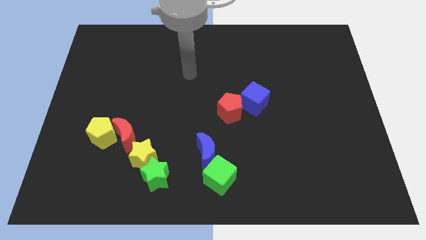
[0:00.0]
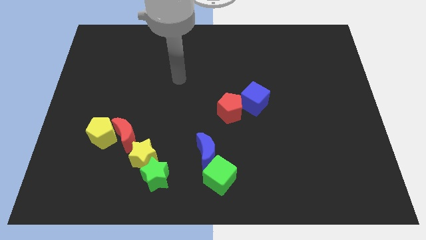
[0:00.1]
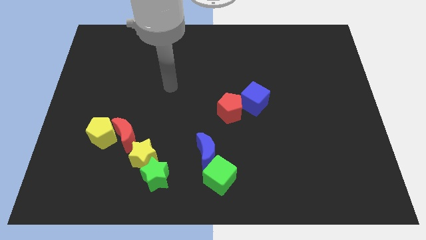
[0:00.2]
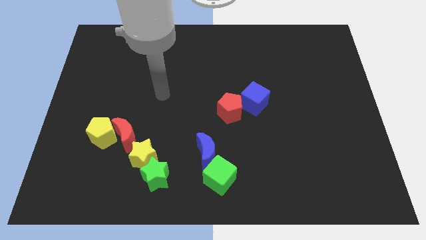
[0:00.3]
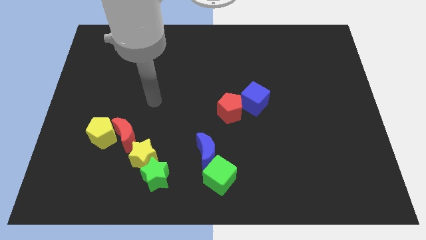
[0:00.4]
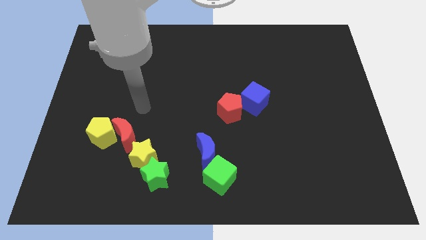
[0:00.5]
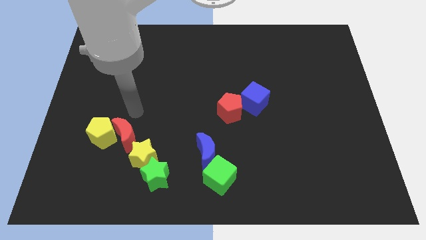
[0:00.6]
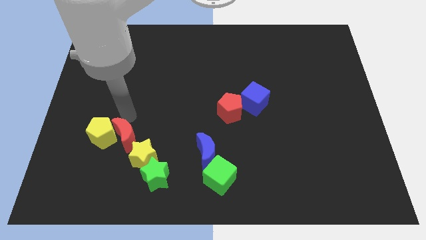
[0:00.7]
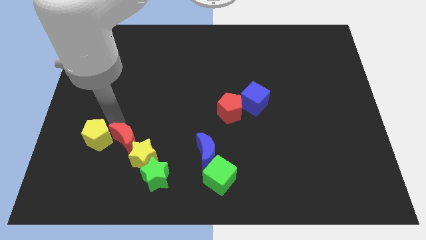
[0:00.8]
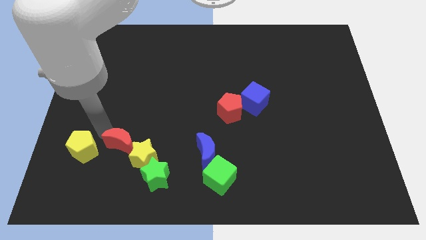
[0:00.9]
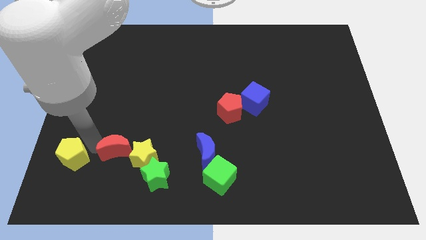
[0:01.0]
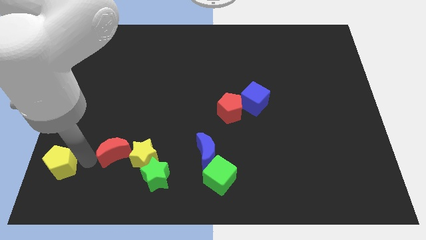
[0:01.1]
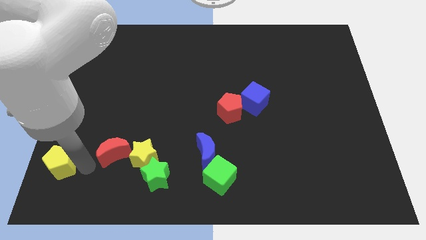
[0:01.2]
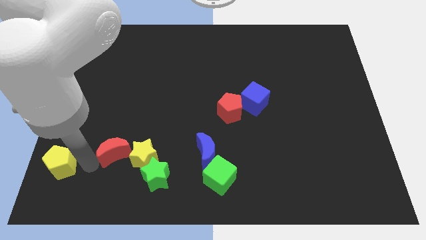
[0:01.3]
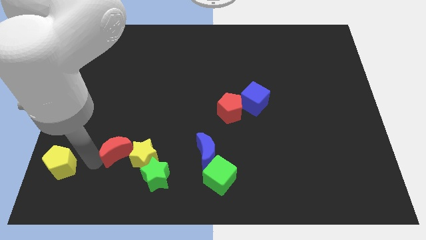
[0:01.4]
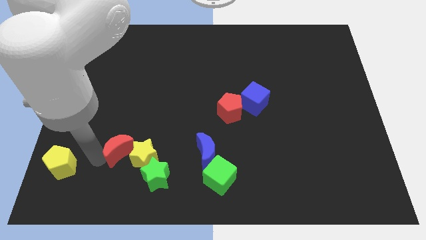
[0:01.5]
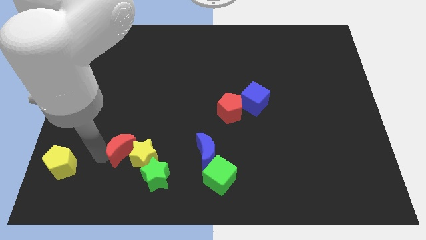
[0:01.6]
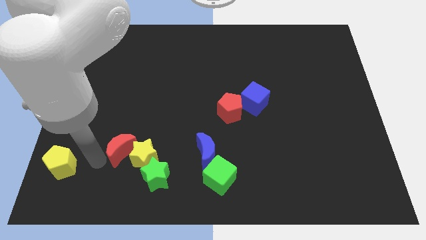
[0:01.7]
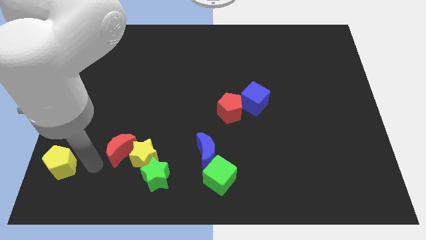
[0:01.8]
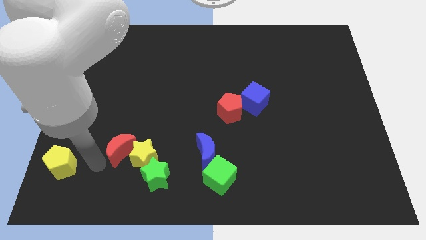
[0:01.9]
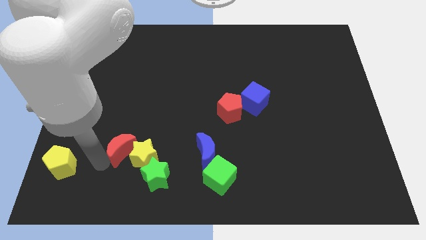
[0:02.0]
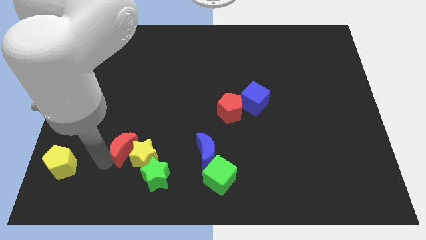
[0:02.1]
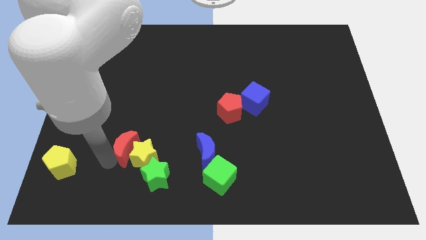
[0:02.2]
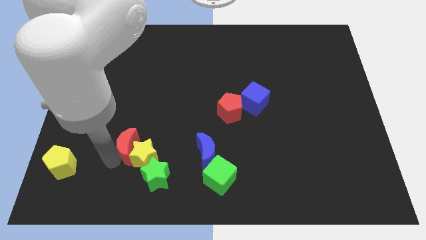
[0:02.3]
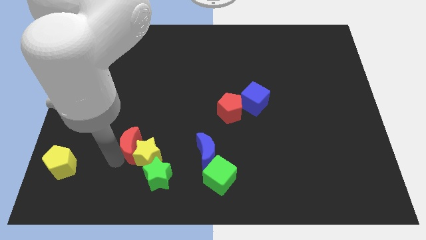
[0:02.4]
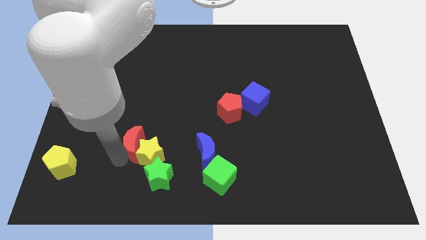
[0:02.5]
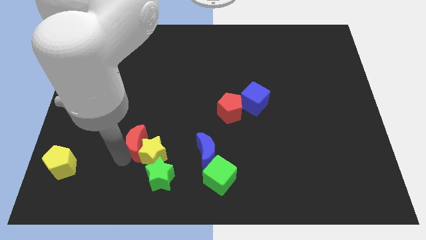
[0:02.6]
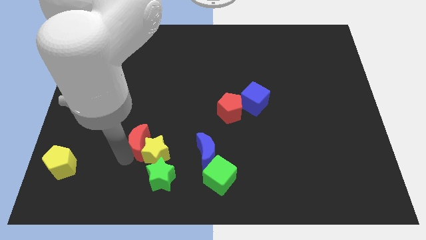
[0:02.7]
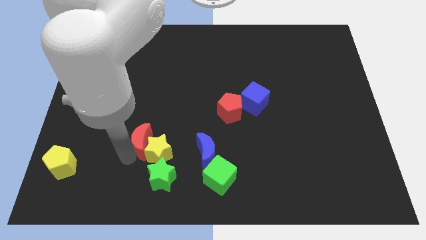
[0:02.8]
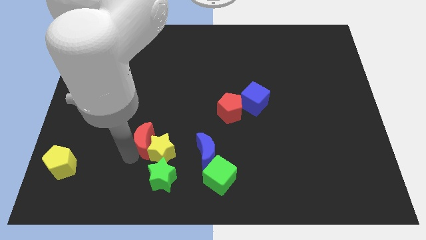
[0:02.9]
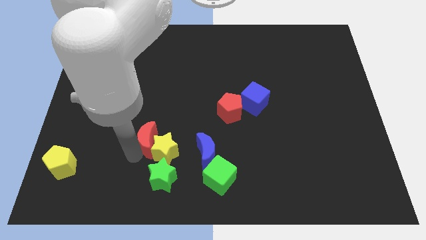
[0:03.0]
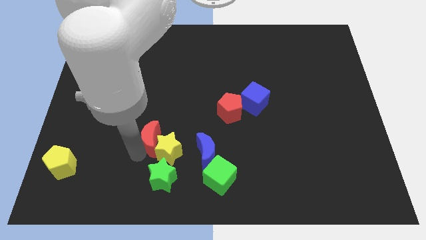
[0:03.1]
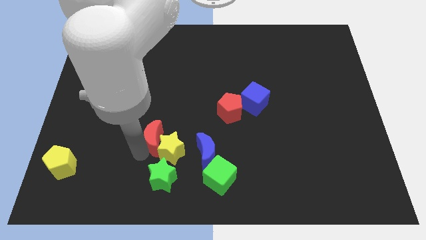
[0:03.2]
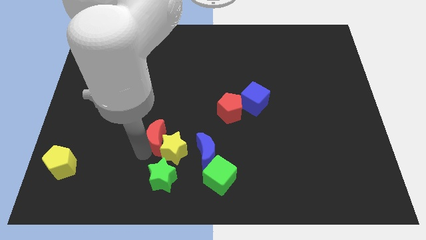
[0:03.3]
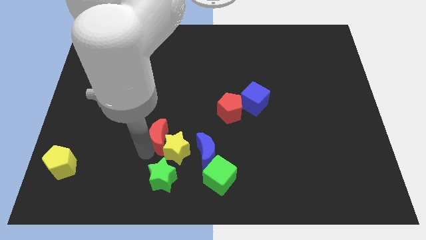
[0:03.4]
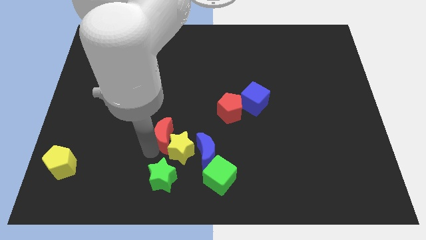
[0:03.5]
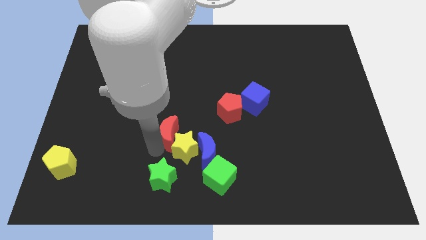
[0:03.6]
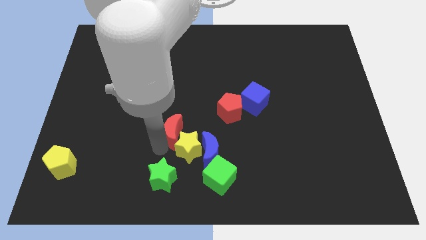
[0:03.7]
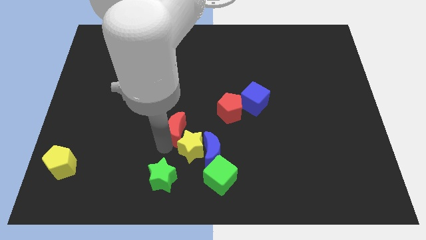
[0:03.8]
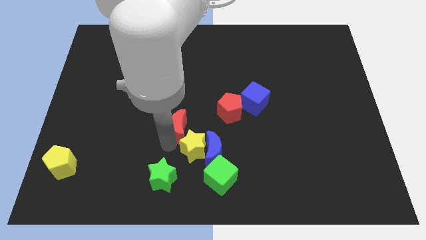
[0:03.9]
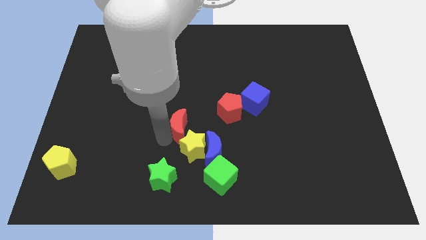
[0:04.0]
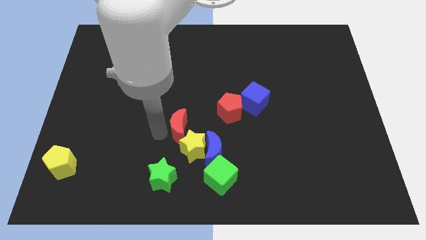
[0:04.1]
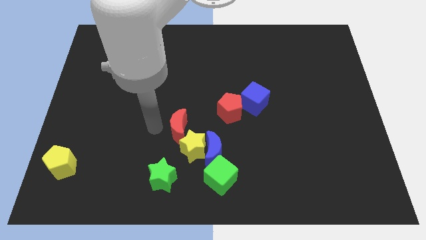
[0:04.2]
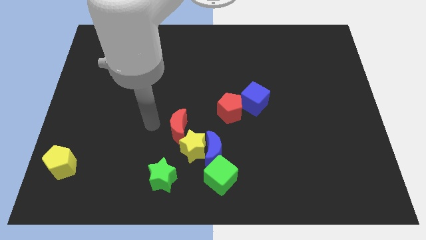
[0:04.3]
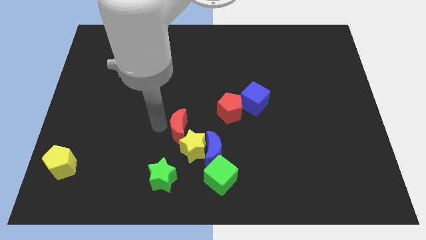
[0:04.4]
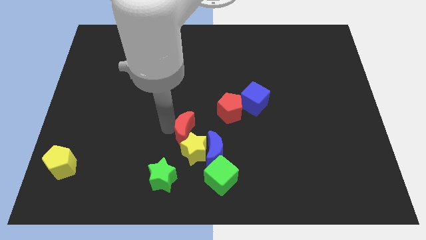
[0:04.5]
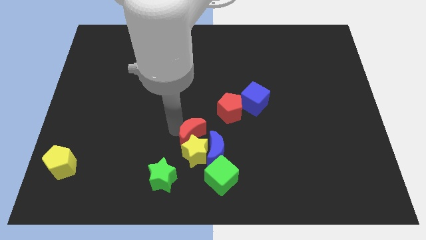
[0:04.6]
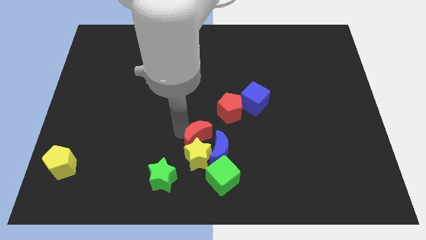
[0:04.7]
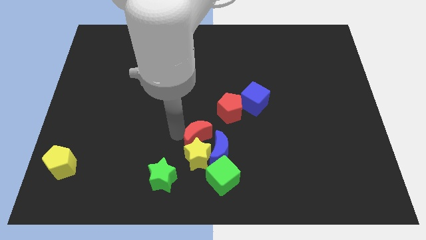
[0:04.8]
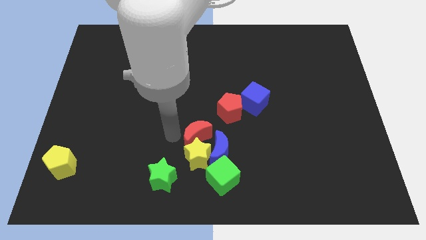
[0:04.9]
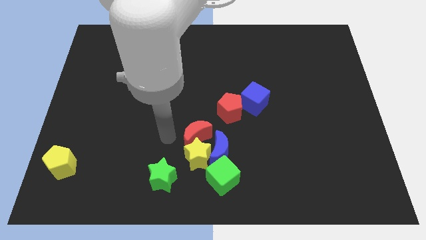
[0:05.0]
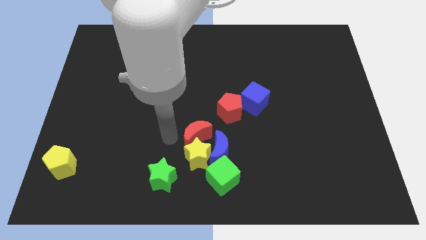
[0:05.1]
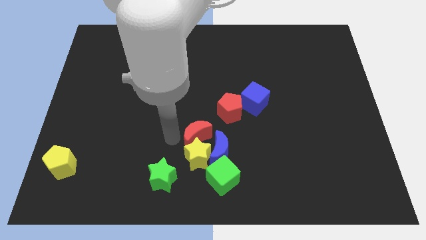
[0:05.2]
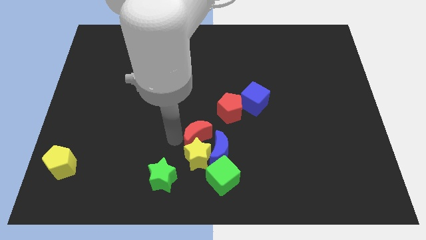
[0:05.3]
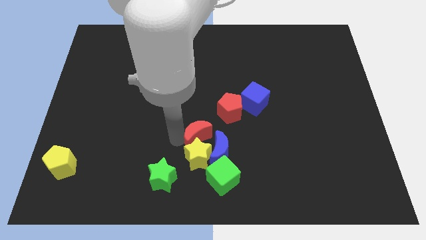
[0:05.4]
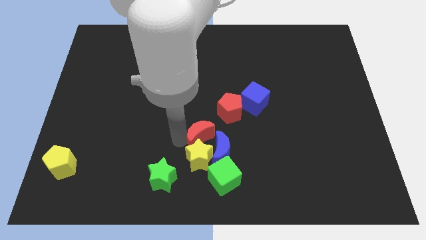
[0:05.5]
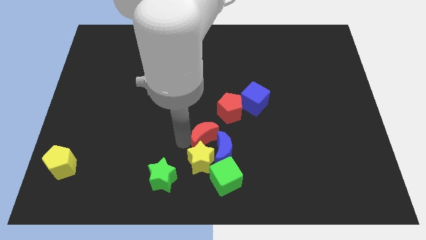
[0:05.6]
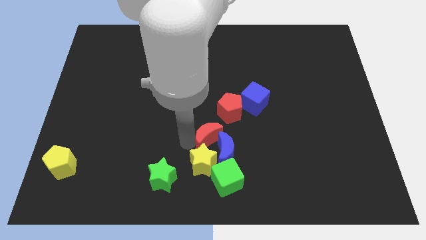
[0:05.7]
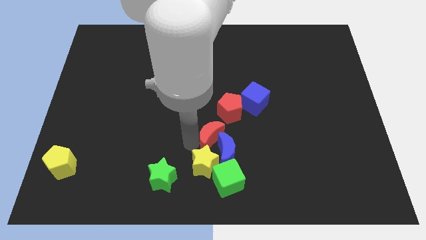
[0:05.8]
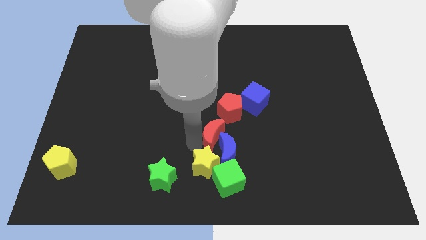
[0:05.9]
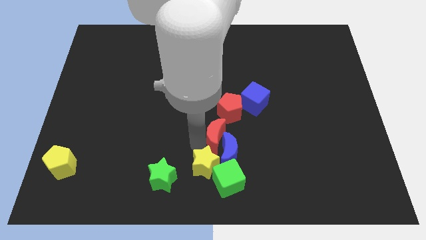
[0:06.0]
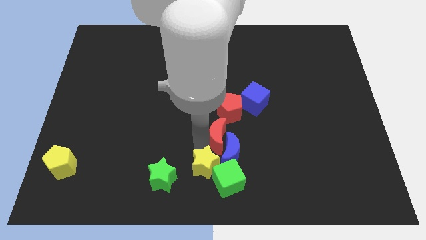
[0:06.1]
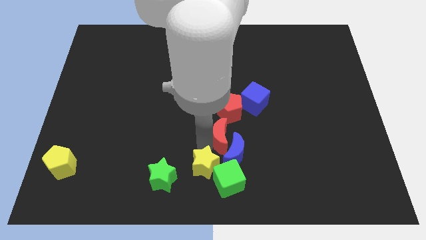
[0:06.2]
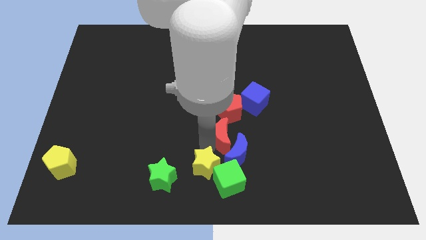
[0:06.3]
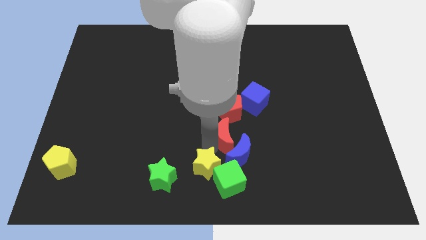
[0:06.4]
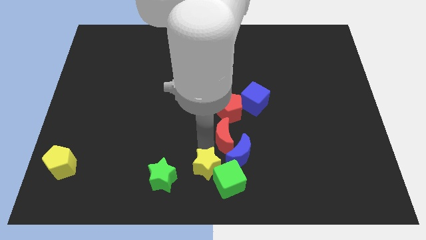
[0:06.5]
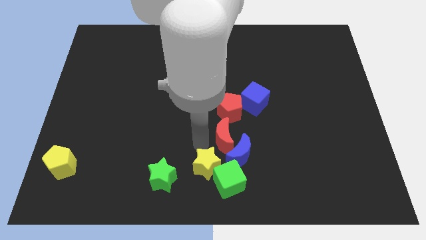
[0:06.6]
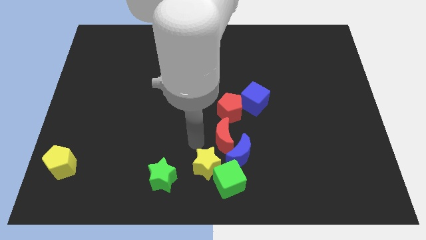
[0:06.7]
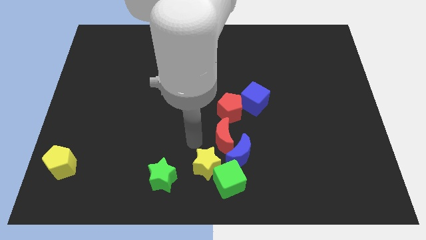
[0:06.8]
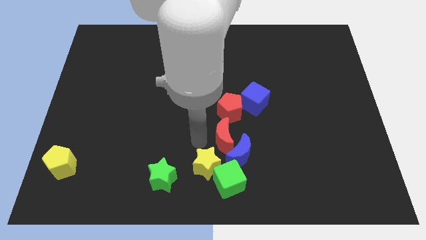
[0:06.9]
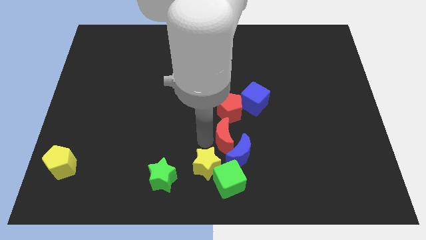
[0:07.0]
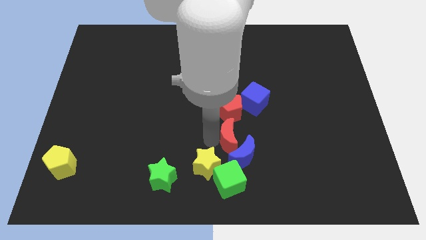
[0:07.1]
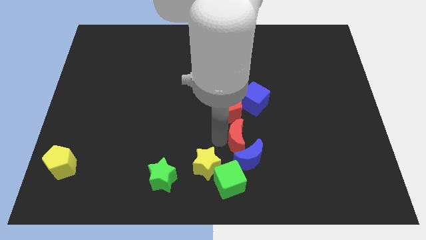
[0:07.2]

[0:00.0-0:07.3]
slide the red moon to the bottom side of the blue cube

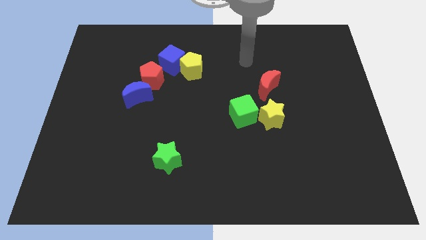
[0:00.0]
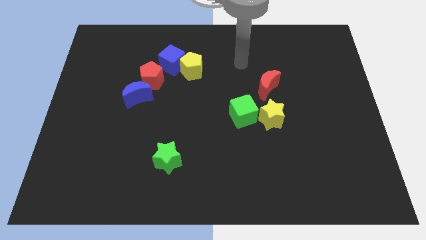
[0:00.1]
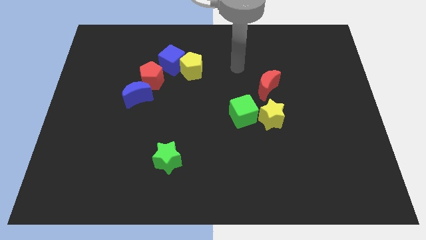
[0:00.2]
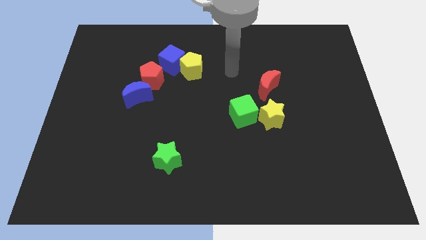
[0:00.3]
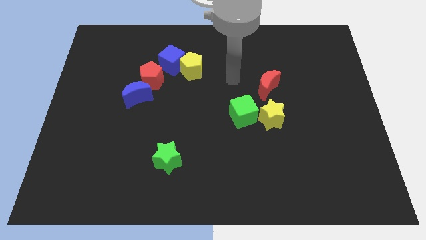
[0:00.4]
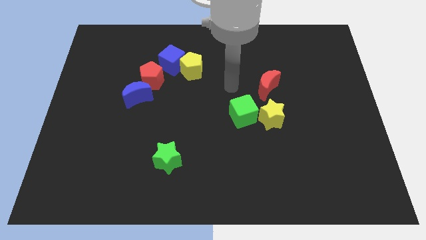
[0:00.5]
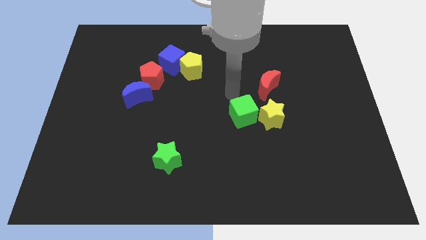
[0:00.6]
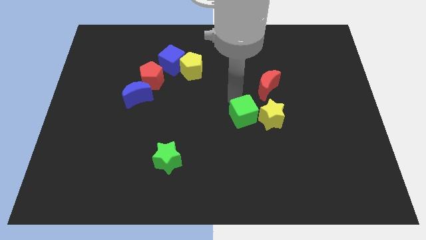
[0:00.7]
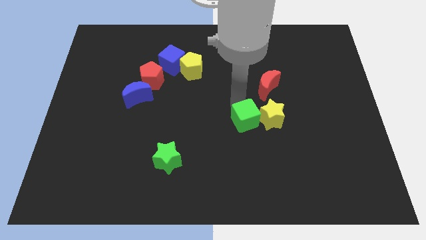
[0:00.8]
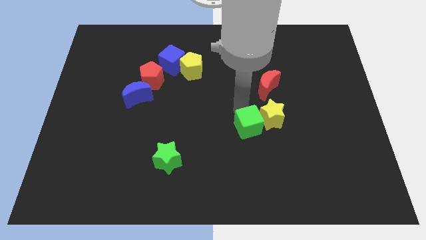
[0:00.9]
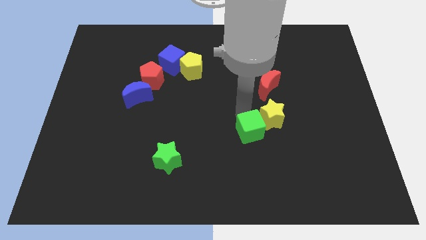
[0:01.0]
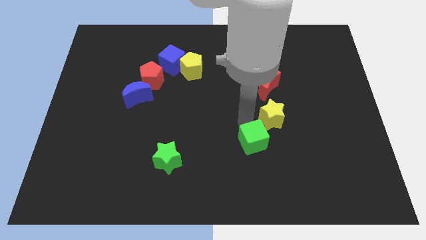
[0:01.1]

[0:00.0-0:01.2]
put the green cube below the yellow star
